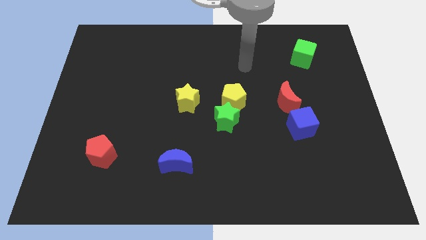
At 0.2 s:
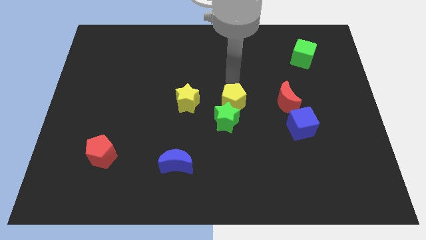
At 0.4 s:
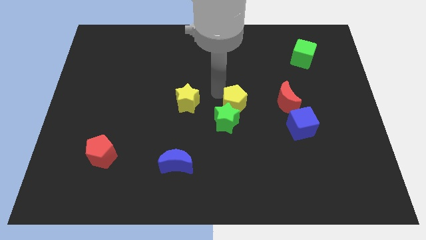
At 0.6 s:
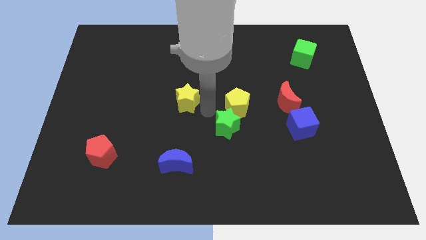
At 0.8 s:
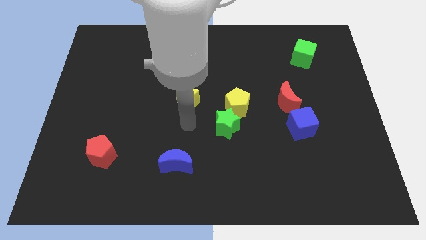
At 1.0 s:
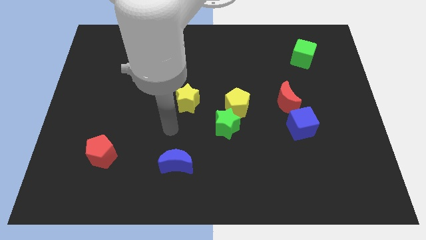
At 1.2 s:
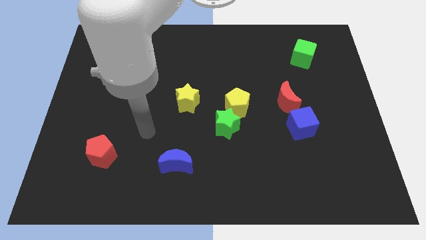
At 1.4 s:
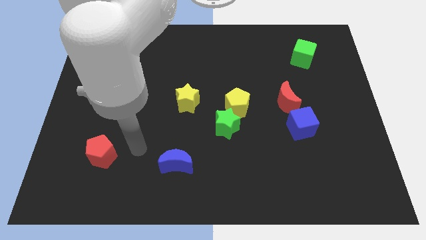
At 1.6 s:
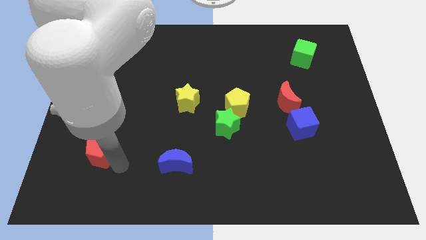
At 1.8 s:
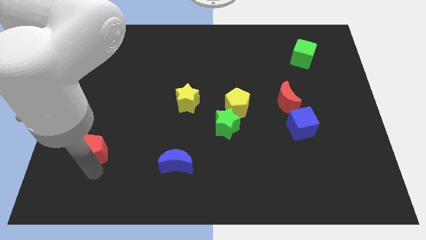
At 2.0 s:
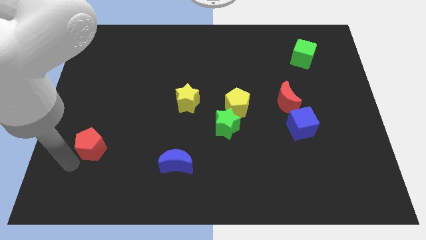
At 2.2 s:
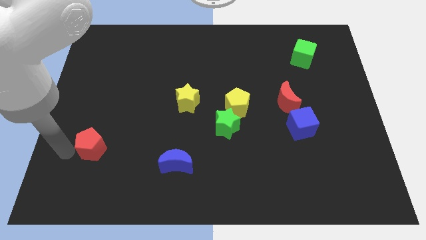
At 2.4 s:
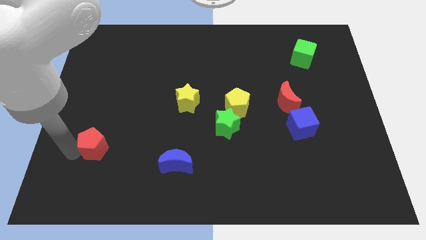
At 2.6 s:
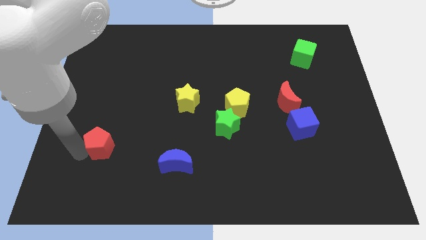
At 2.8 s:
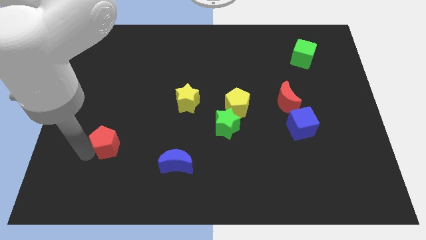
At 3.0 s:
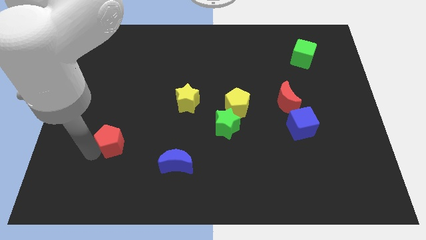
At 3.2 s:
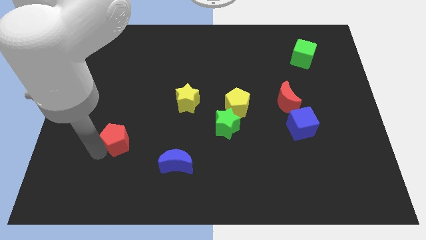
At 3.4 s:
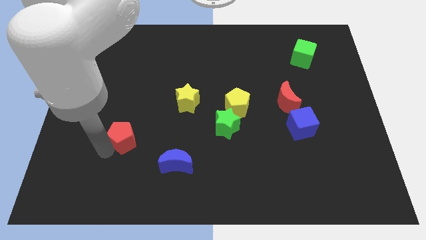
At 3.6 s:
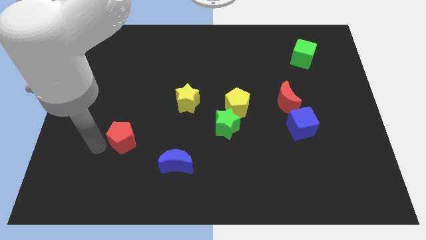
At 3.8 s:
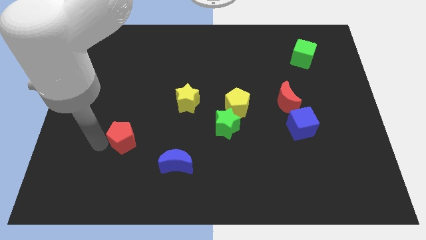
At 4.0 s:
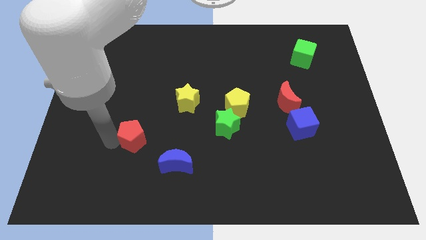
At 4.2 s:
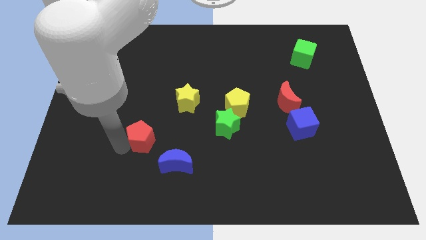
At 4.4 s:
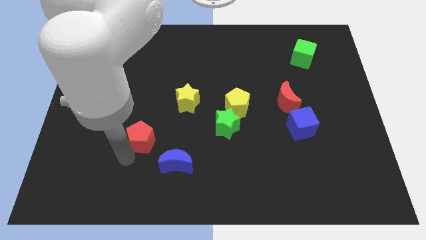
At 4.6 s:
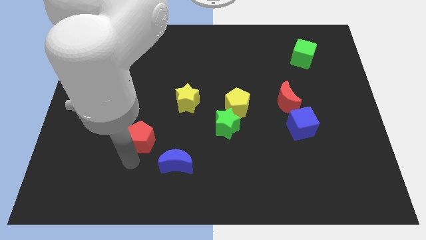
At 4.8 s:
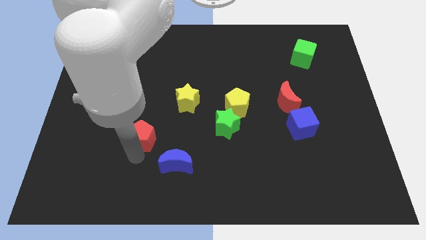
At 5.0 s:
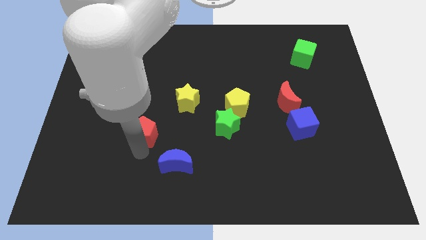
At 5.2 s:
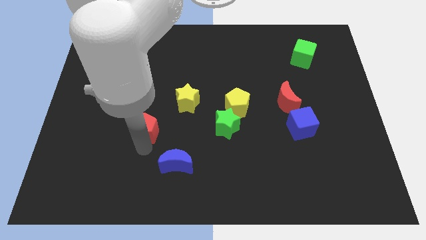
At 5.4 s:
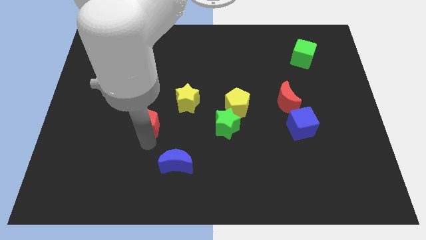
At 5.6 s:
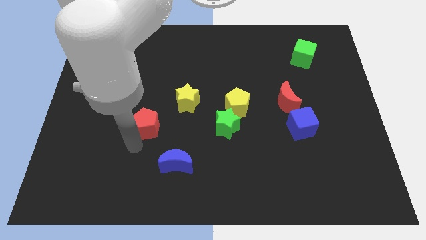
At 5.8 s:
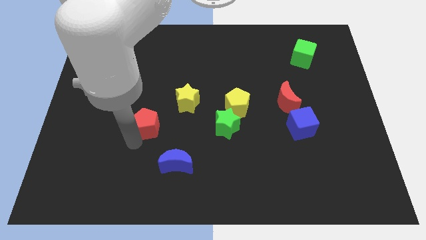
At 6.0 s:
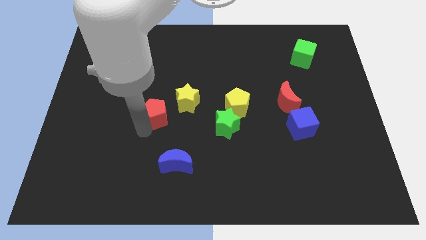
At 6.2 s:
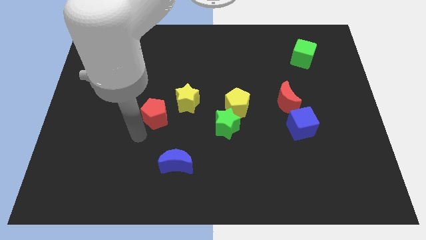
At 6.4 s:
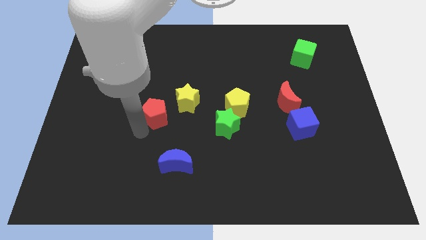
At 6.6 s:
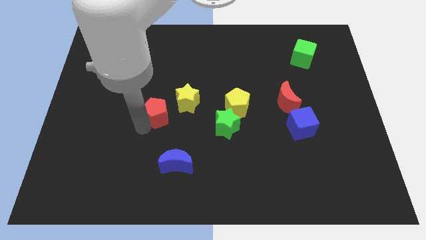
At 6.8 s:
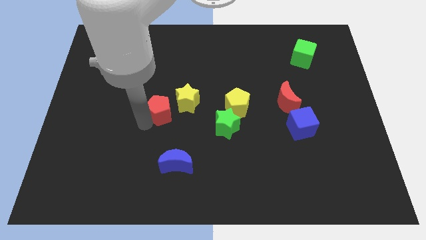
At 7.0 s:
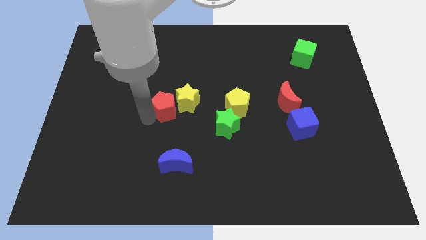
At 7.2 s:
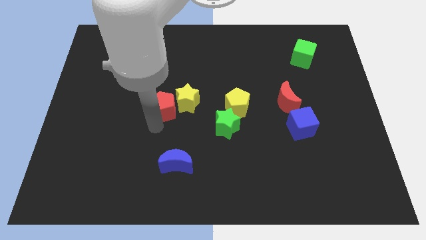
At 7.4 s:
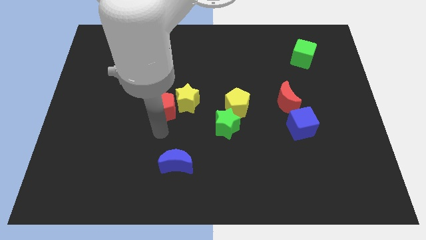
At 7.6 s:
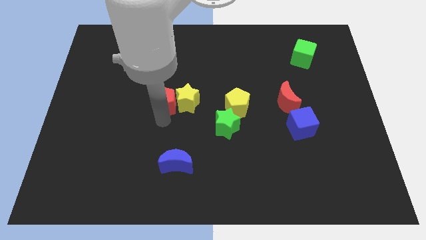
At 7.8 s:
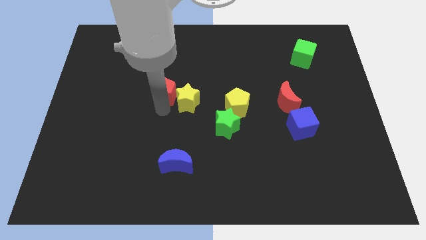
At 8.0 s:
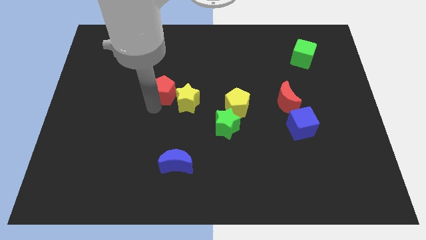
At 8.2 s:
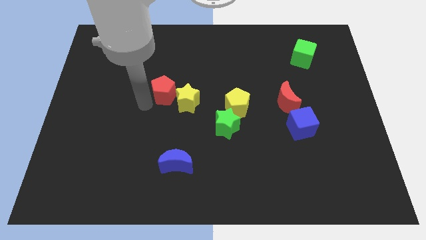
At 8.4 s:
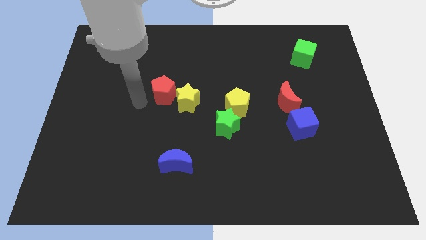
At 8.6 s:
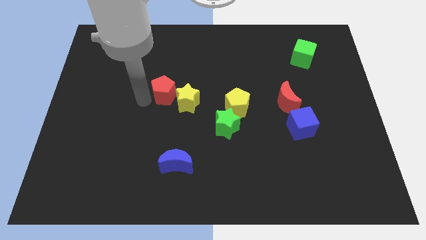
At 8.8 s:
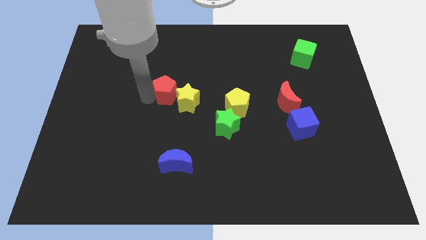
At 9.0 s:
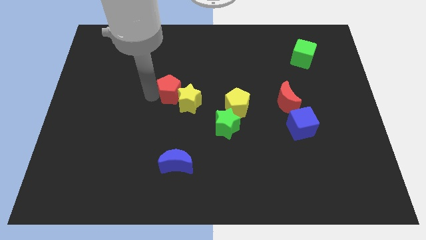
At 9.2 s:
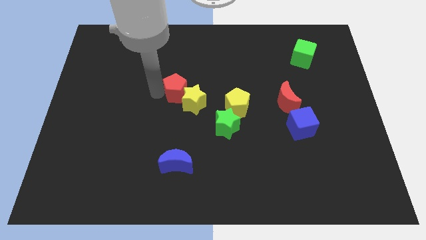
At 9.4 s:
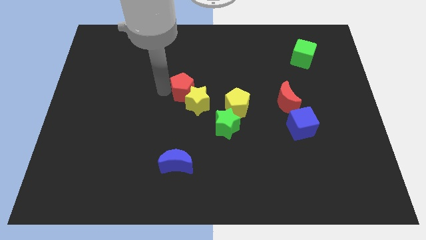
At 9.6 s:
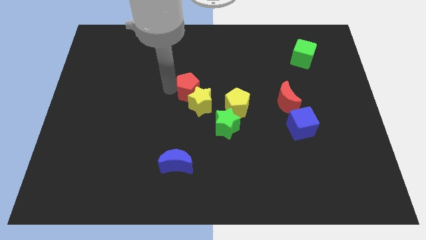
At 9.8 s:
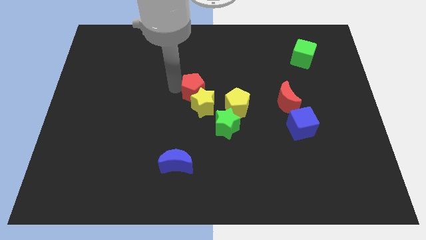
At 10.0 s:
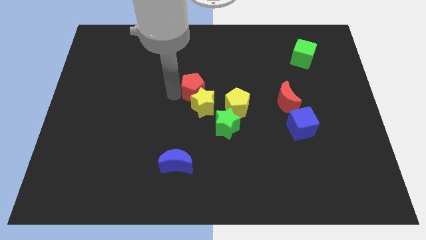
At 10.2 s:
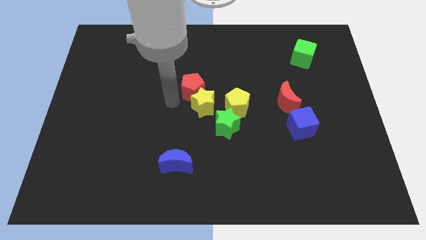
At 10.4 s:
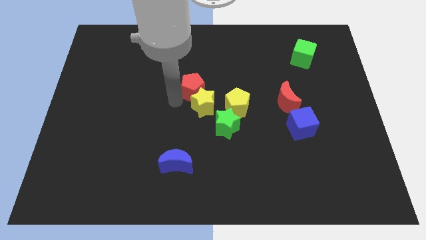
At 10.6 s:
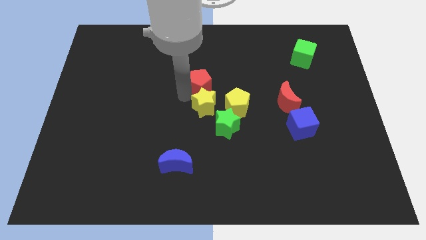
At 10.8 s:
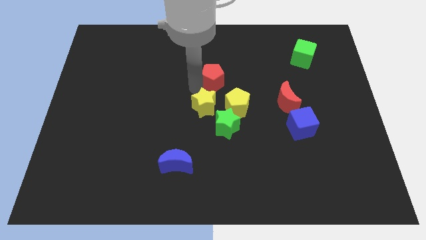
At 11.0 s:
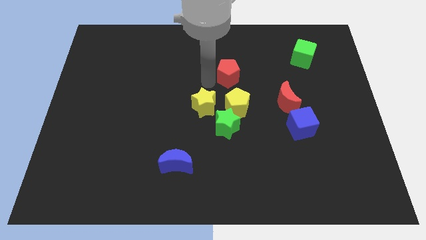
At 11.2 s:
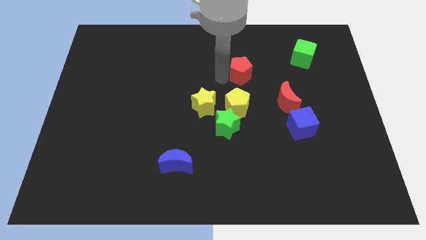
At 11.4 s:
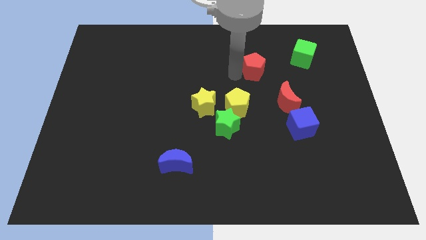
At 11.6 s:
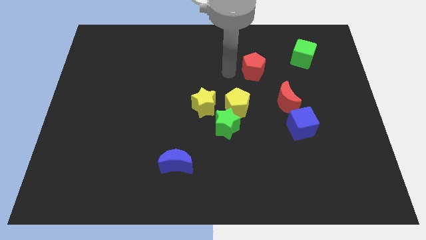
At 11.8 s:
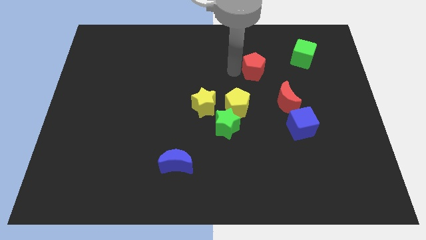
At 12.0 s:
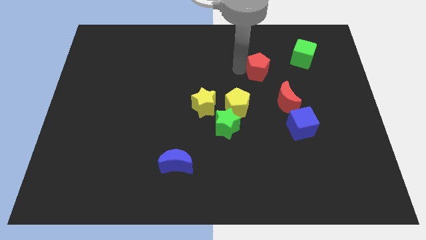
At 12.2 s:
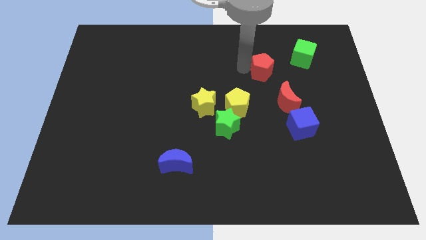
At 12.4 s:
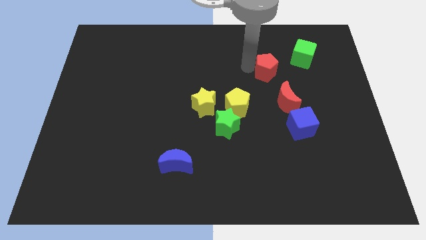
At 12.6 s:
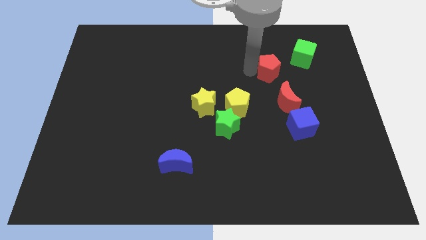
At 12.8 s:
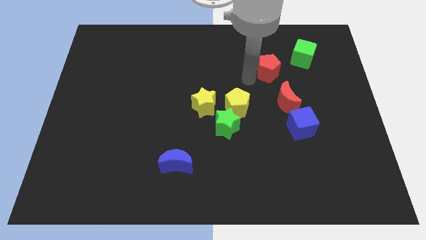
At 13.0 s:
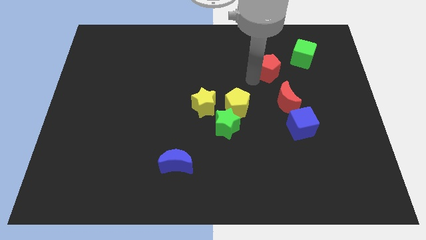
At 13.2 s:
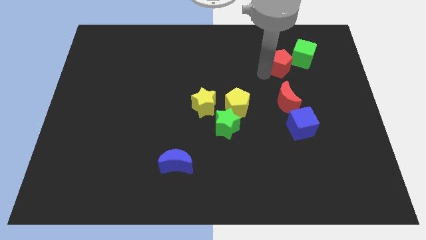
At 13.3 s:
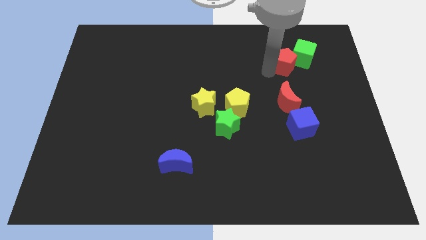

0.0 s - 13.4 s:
push the red pentagon towards the green cube

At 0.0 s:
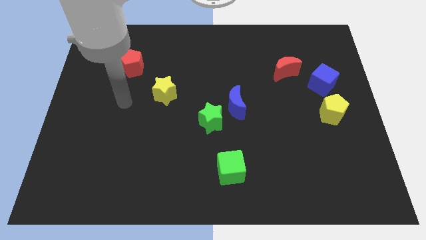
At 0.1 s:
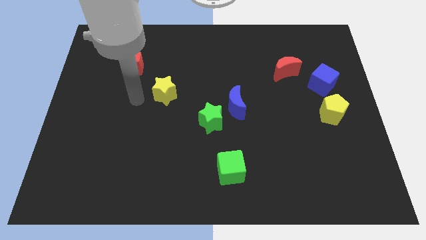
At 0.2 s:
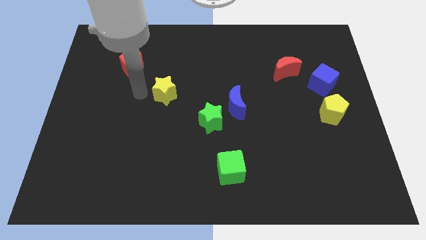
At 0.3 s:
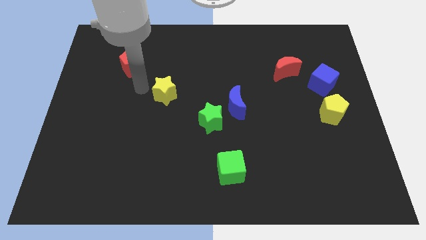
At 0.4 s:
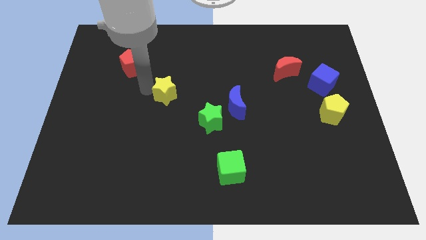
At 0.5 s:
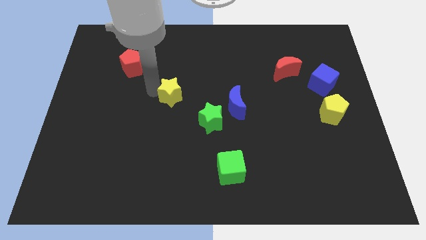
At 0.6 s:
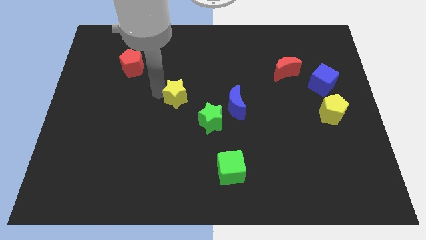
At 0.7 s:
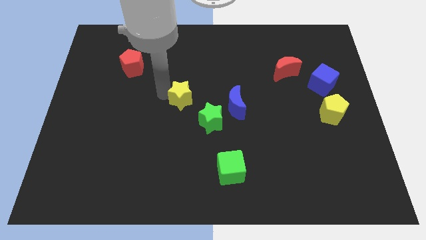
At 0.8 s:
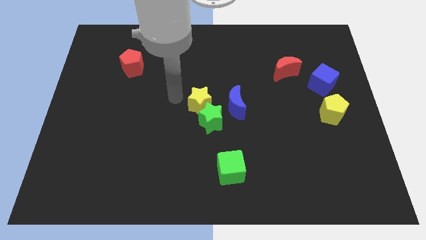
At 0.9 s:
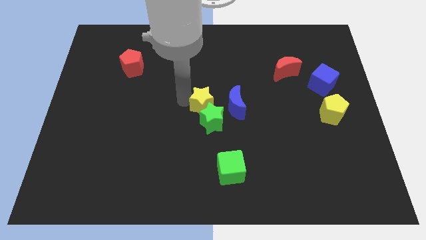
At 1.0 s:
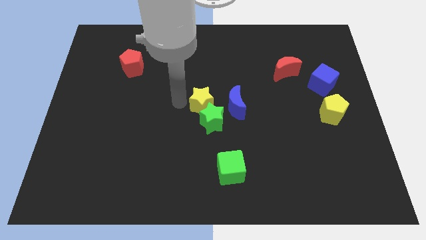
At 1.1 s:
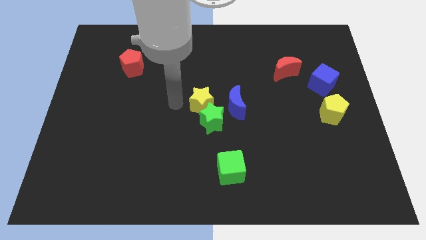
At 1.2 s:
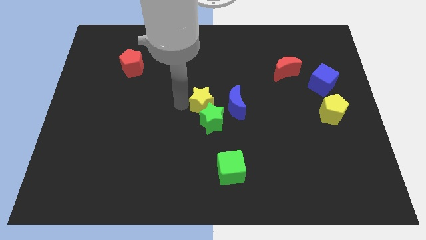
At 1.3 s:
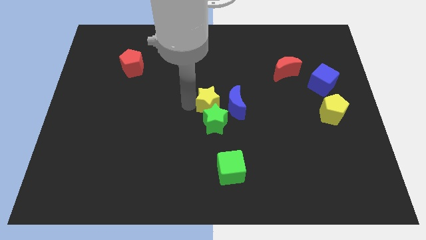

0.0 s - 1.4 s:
push the yellow star to the blue moon
